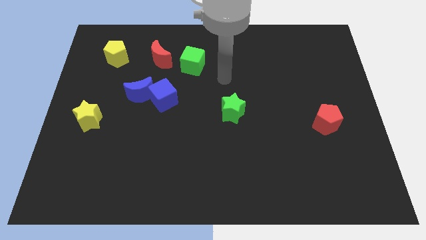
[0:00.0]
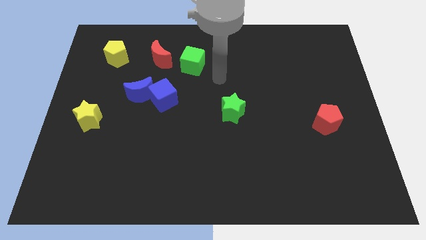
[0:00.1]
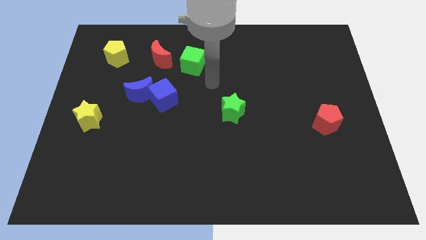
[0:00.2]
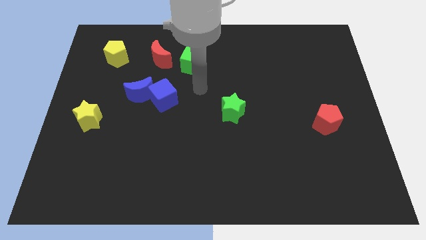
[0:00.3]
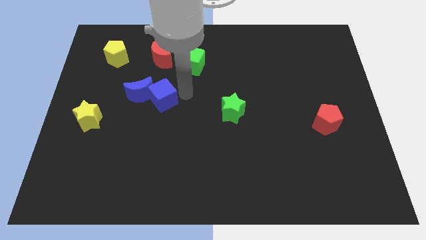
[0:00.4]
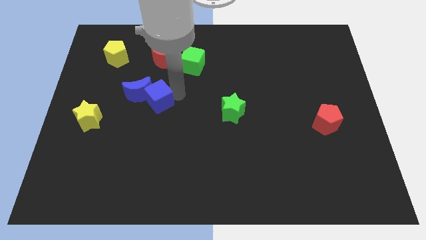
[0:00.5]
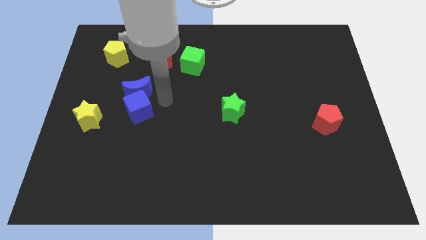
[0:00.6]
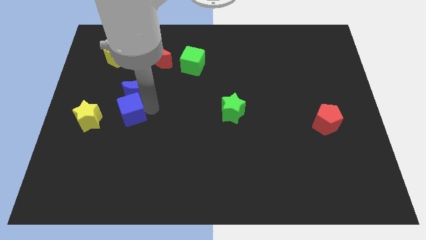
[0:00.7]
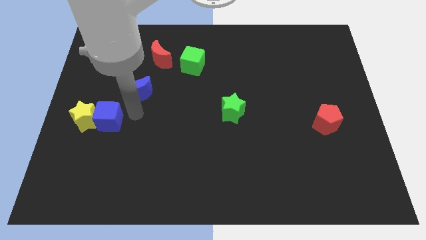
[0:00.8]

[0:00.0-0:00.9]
separate the blue moon from the blue cube

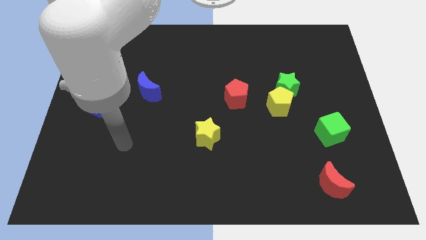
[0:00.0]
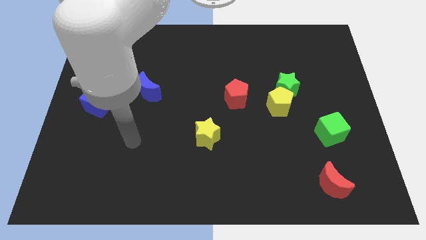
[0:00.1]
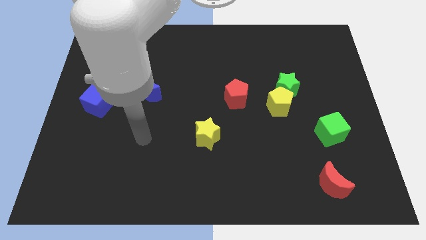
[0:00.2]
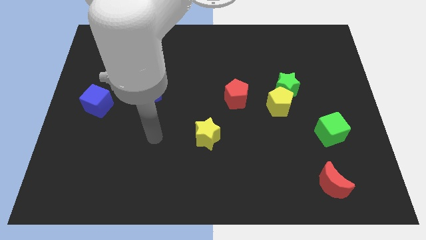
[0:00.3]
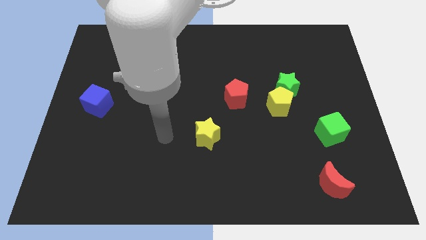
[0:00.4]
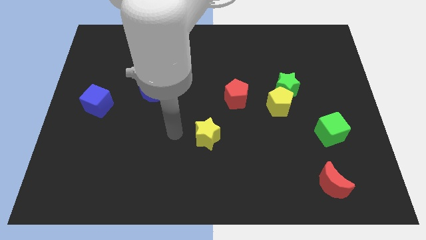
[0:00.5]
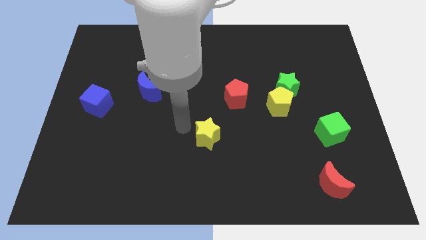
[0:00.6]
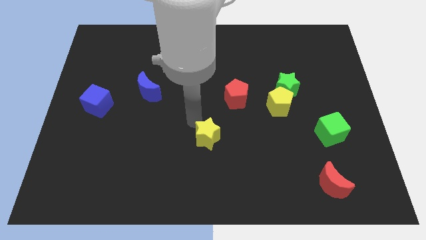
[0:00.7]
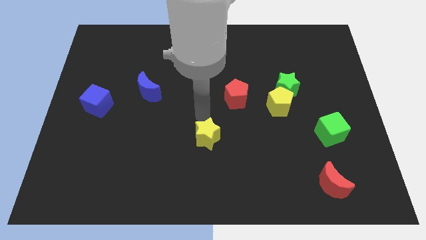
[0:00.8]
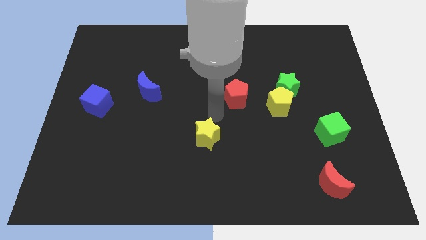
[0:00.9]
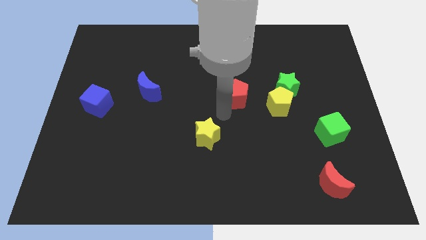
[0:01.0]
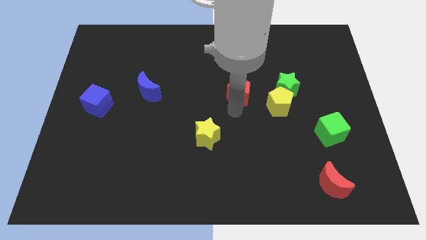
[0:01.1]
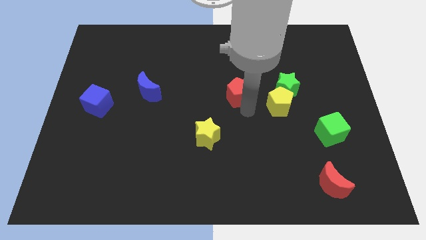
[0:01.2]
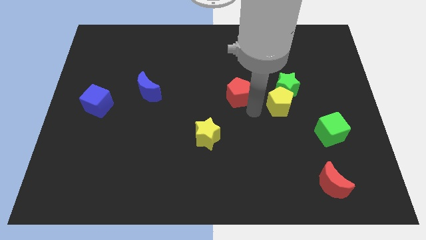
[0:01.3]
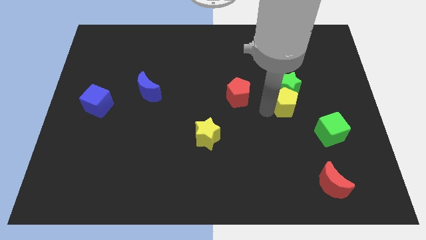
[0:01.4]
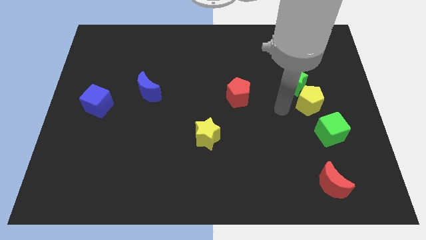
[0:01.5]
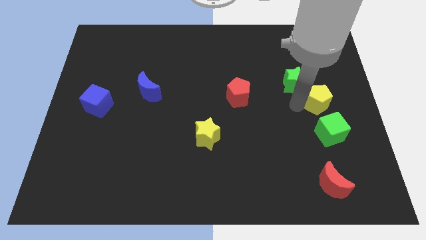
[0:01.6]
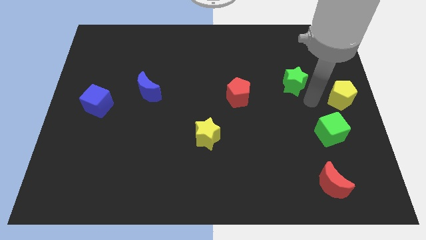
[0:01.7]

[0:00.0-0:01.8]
move the green star away from the yellow pentagon

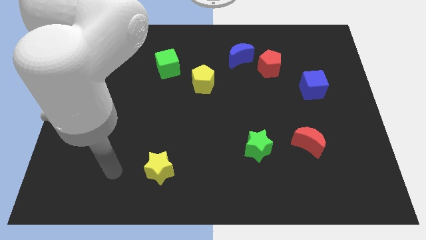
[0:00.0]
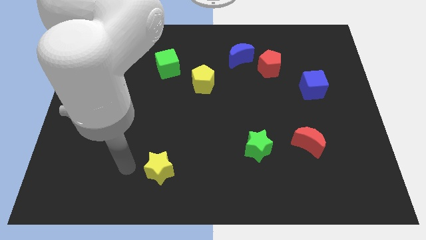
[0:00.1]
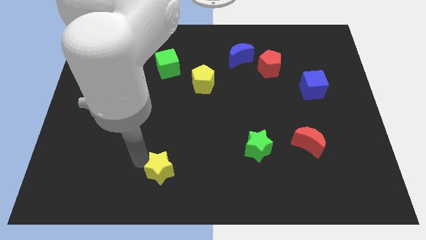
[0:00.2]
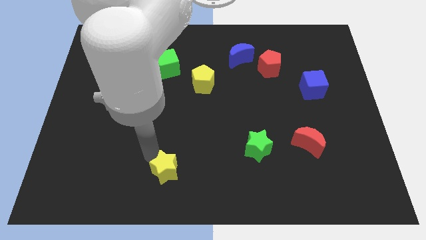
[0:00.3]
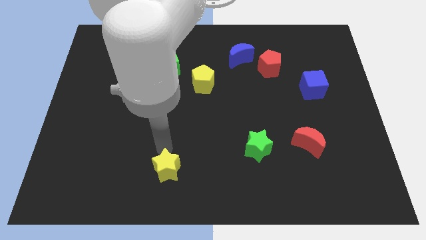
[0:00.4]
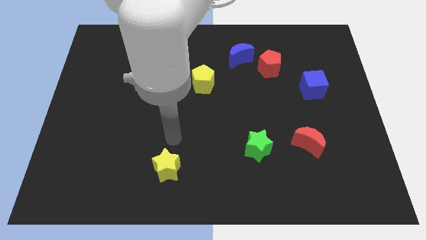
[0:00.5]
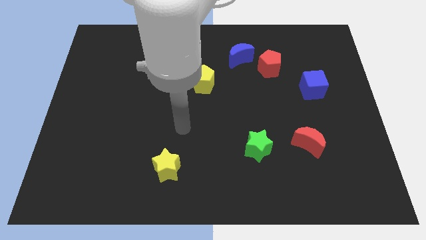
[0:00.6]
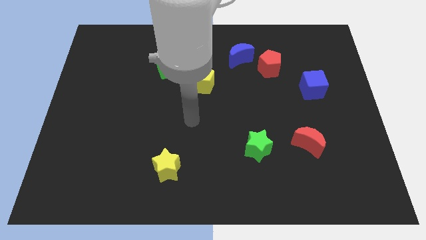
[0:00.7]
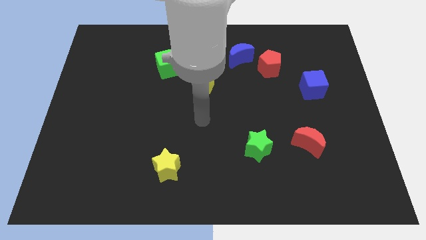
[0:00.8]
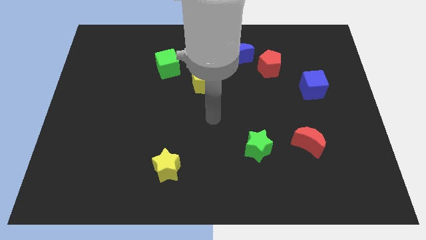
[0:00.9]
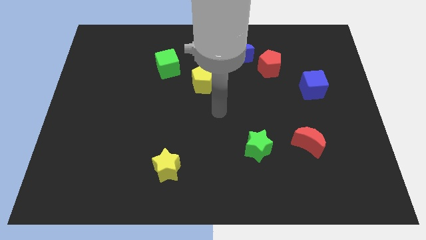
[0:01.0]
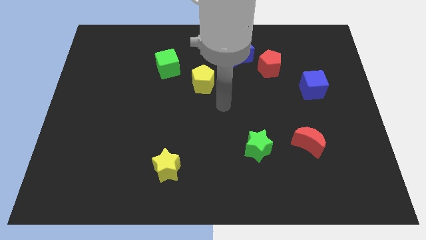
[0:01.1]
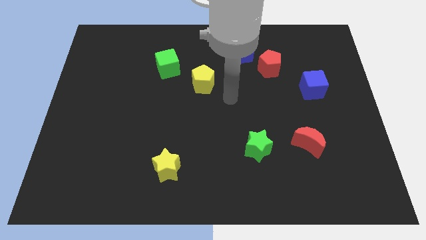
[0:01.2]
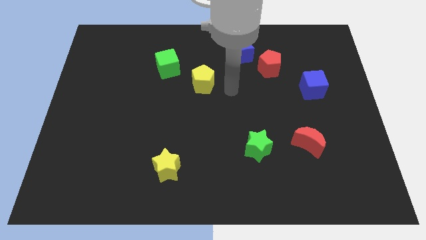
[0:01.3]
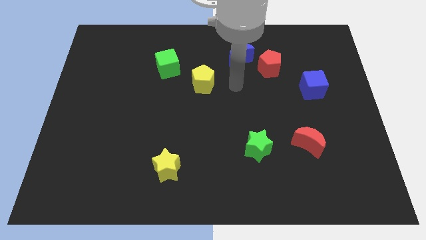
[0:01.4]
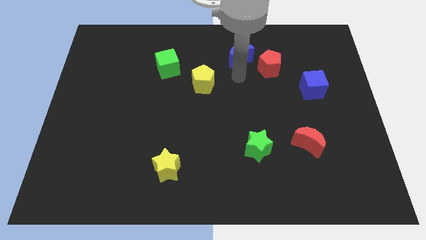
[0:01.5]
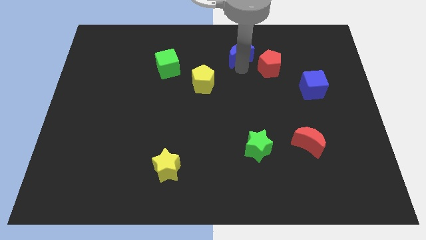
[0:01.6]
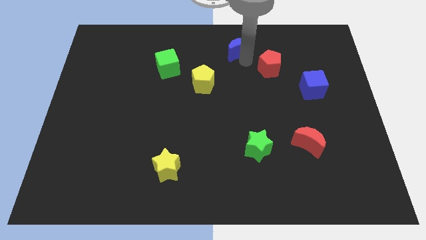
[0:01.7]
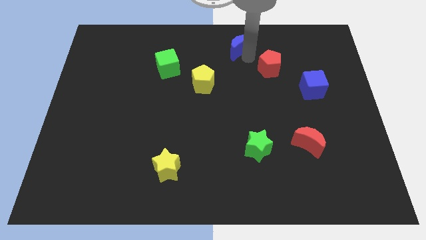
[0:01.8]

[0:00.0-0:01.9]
separate the red pentagon from the blue moon

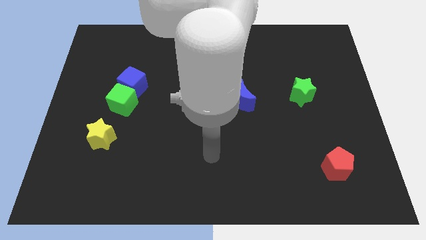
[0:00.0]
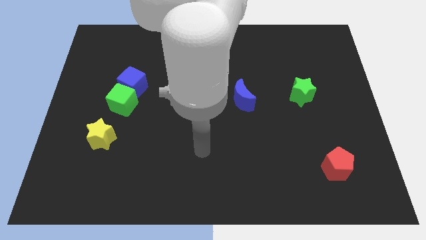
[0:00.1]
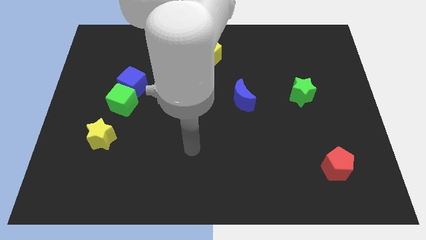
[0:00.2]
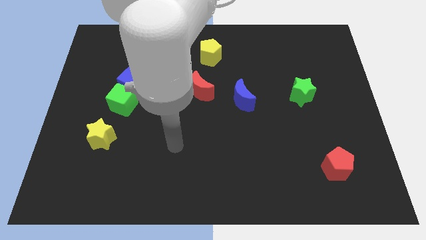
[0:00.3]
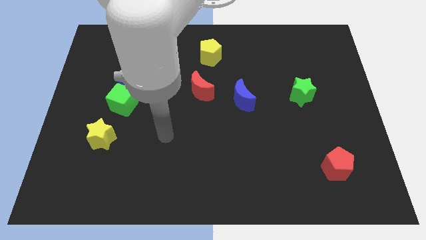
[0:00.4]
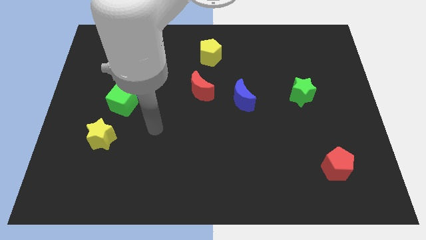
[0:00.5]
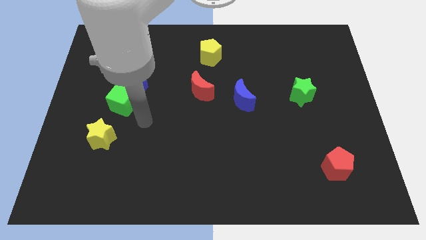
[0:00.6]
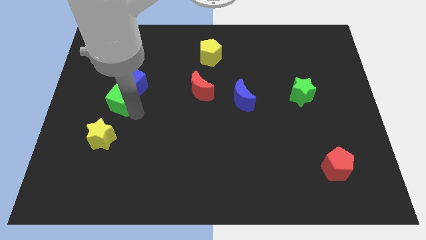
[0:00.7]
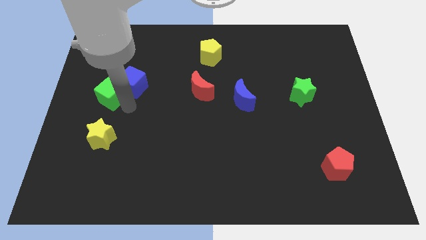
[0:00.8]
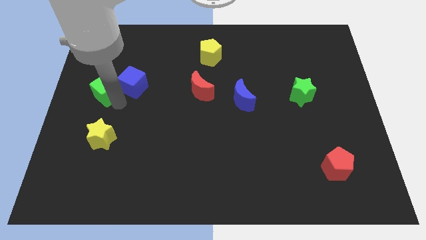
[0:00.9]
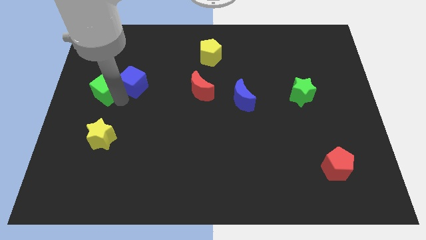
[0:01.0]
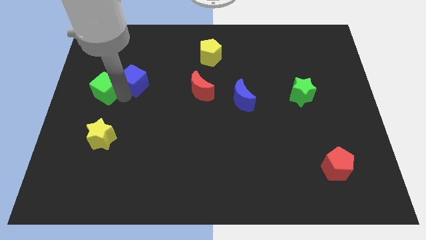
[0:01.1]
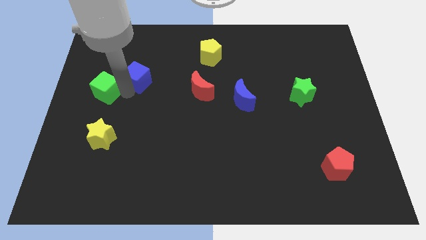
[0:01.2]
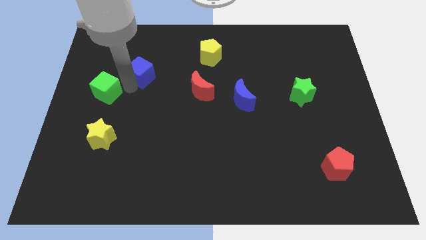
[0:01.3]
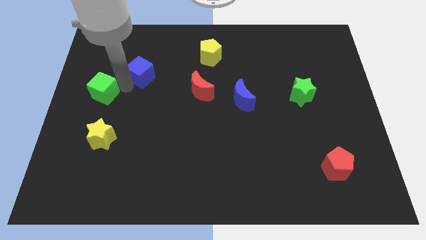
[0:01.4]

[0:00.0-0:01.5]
move the blue cube away from the green cube

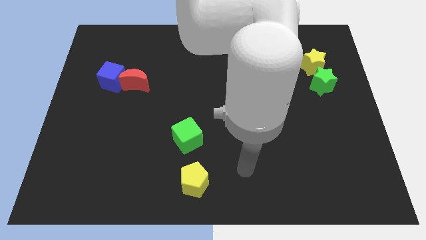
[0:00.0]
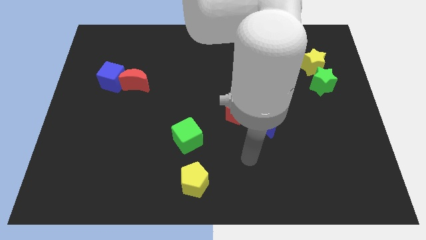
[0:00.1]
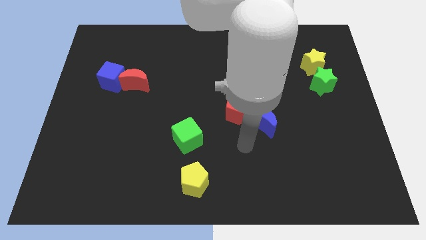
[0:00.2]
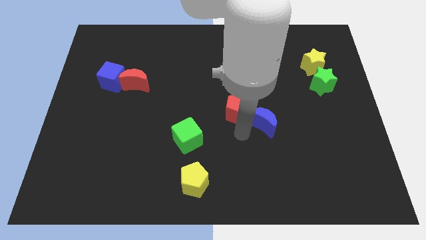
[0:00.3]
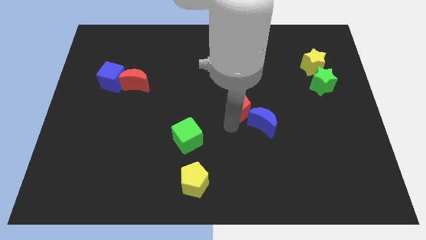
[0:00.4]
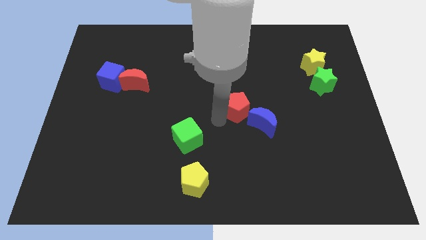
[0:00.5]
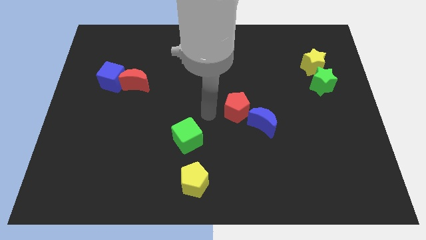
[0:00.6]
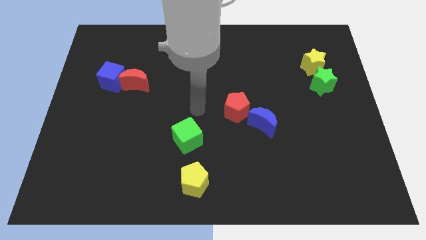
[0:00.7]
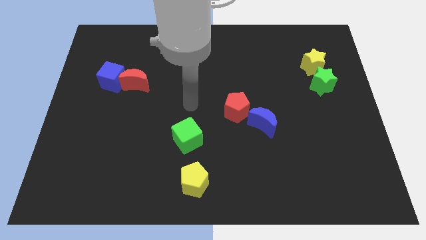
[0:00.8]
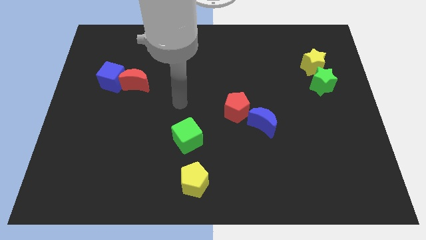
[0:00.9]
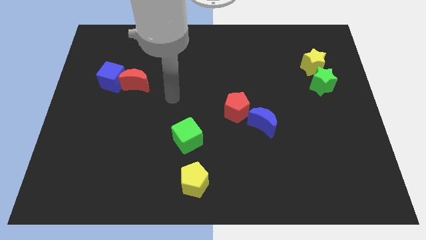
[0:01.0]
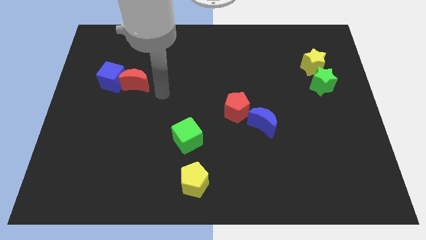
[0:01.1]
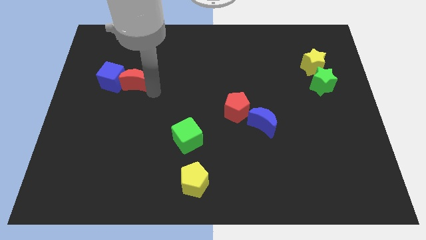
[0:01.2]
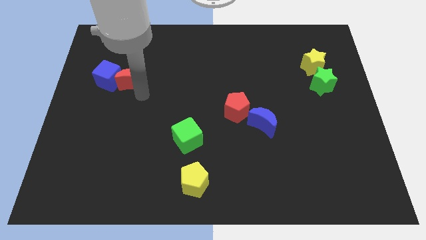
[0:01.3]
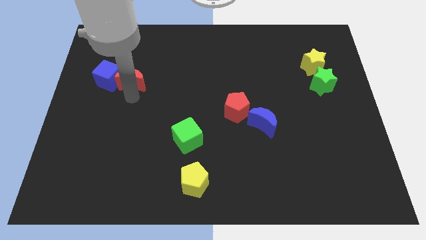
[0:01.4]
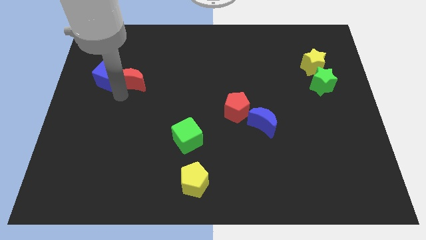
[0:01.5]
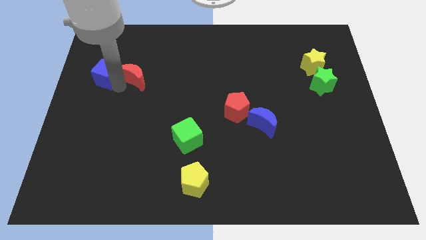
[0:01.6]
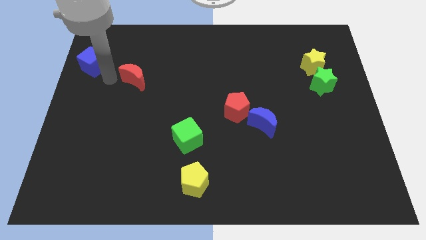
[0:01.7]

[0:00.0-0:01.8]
pull the red moon apart from the blue cube

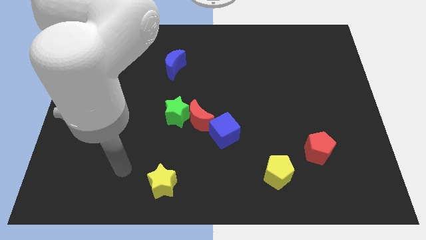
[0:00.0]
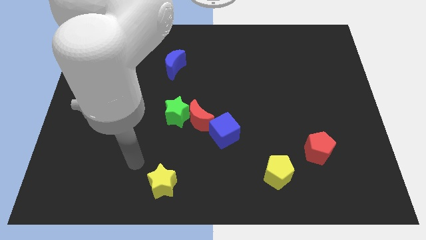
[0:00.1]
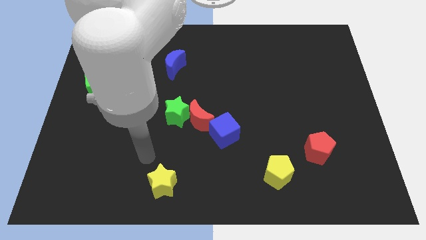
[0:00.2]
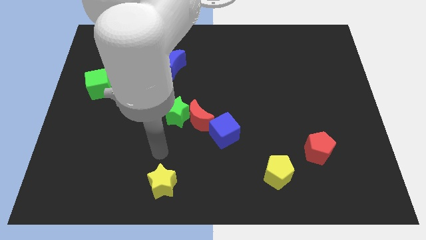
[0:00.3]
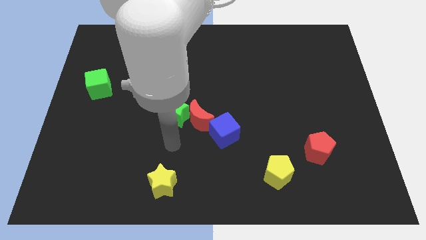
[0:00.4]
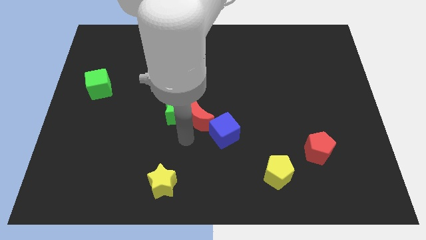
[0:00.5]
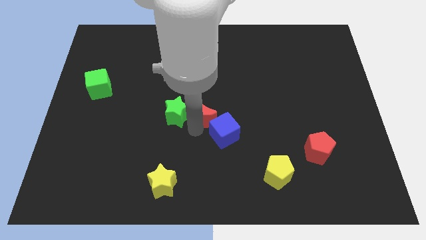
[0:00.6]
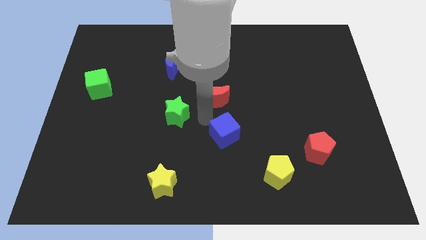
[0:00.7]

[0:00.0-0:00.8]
separate the green star from the red moon

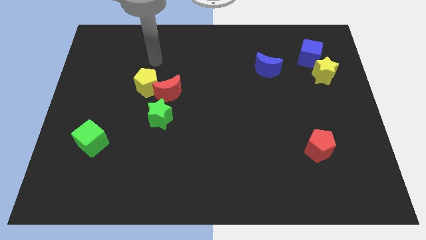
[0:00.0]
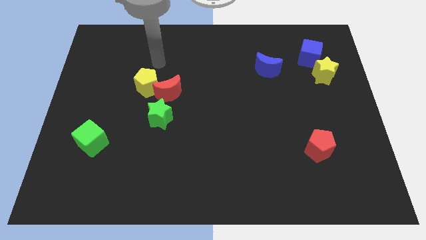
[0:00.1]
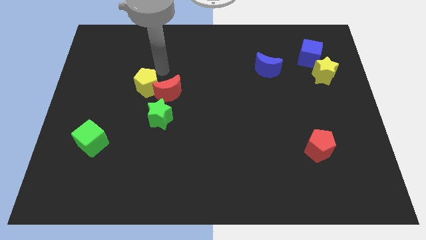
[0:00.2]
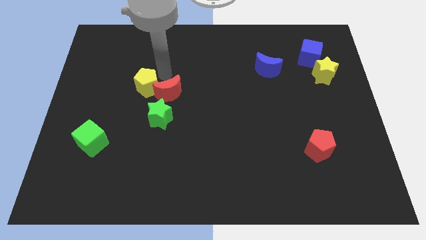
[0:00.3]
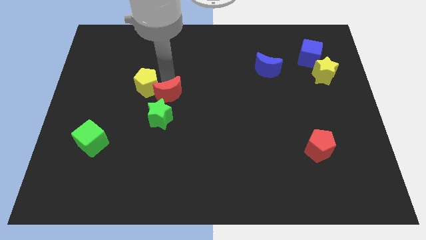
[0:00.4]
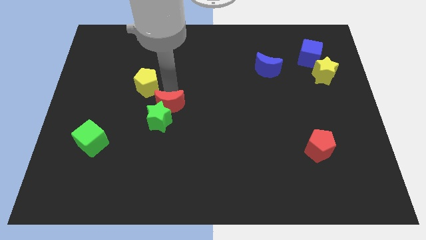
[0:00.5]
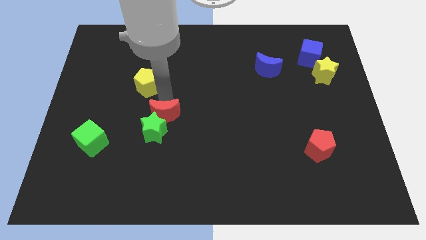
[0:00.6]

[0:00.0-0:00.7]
pull the yellow pentagon apart from the red moon

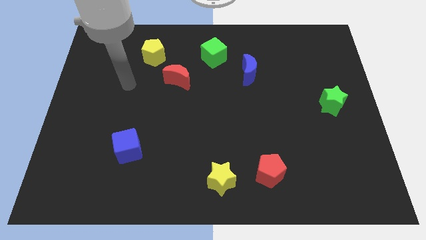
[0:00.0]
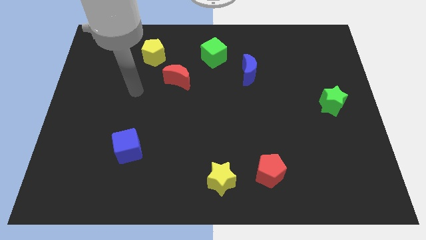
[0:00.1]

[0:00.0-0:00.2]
move the red pentagon away from the yellow star
